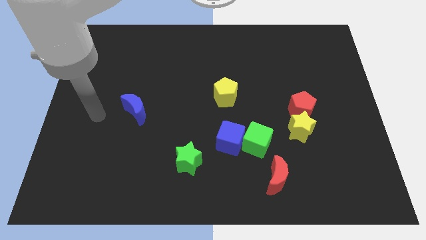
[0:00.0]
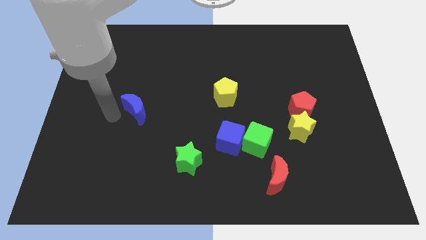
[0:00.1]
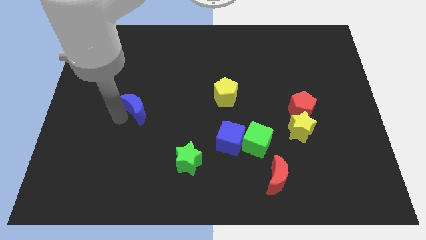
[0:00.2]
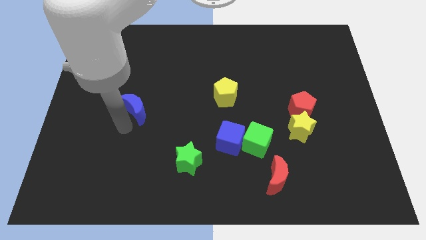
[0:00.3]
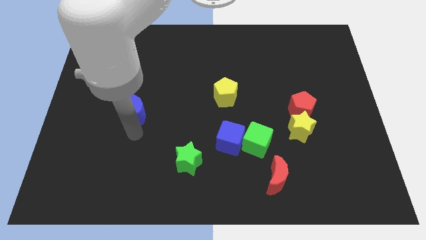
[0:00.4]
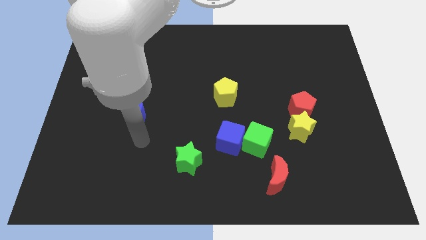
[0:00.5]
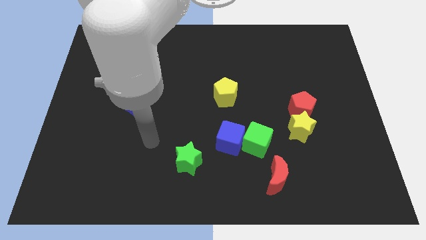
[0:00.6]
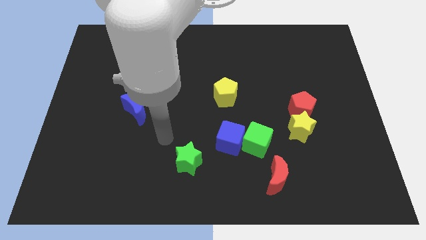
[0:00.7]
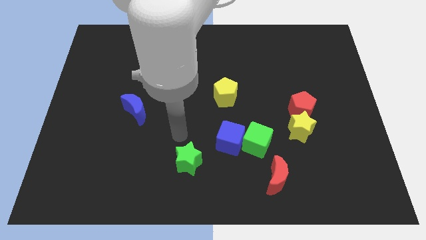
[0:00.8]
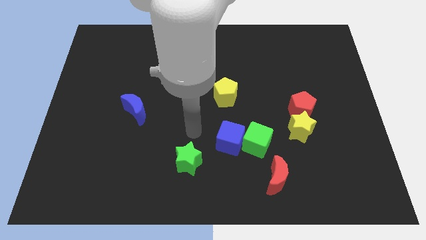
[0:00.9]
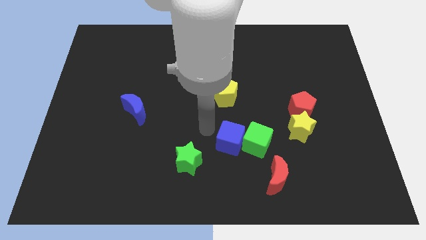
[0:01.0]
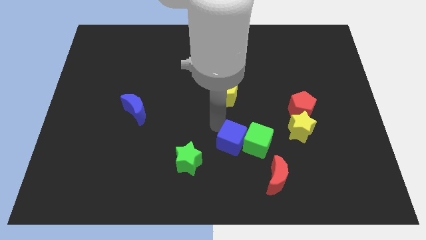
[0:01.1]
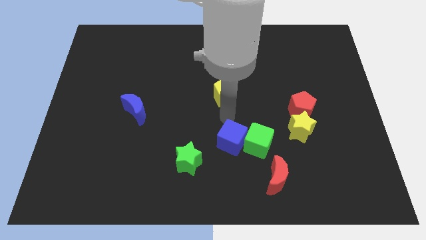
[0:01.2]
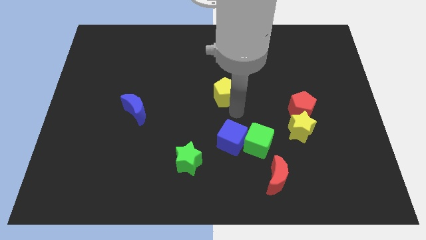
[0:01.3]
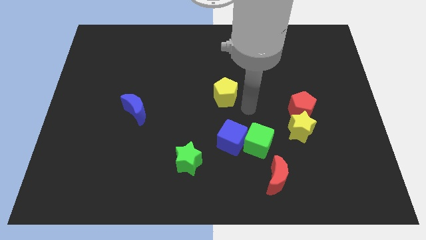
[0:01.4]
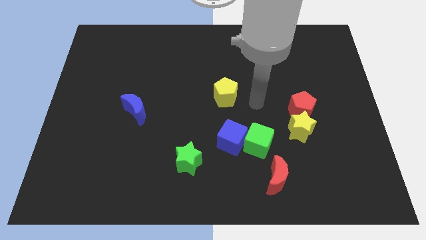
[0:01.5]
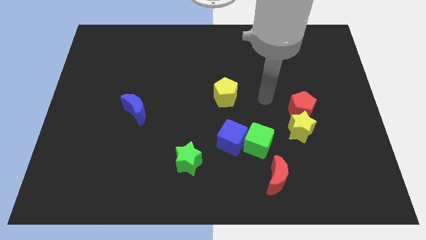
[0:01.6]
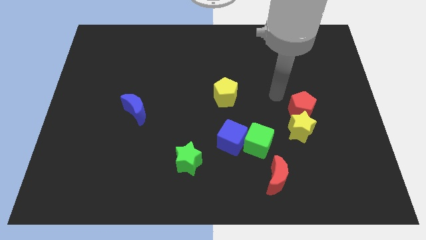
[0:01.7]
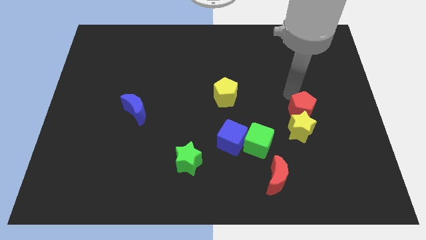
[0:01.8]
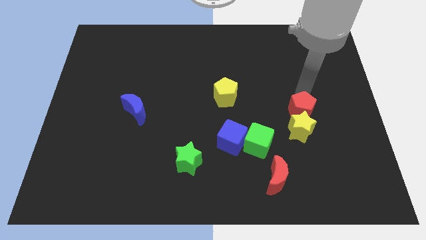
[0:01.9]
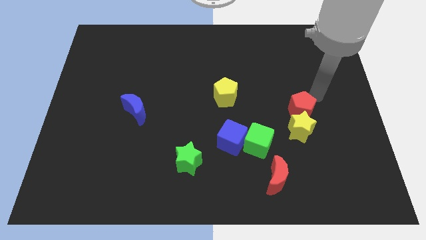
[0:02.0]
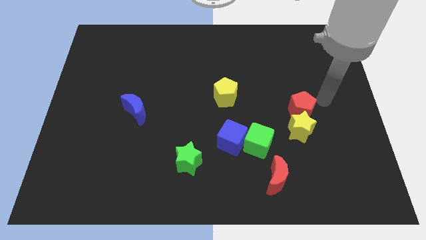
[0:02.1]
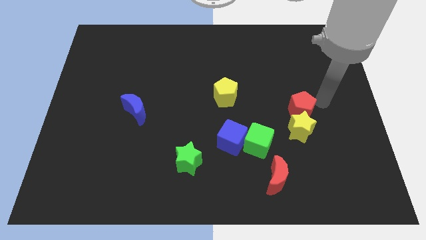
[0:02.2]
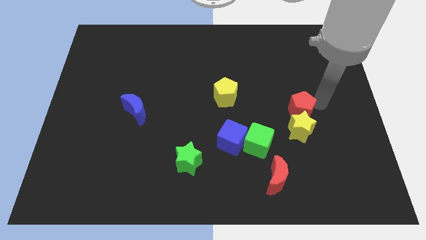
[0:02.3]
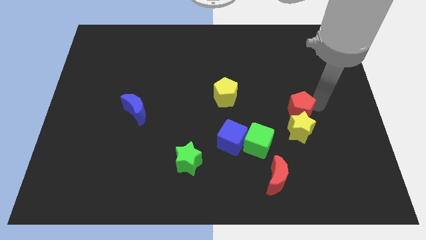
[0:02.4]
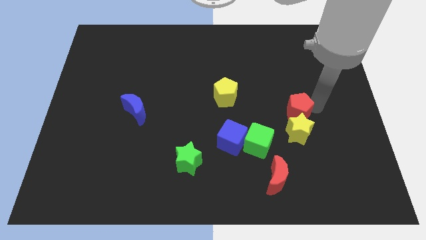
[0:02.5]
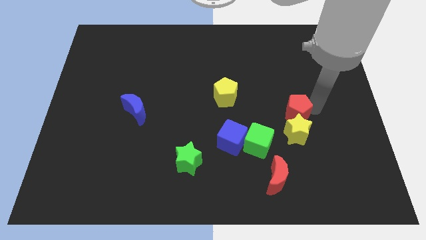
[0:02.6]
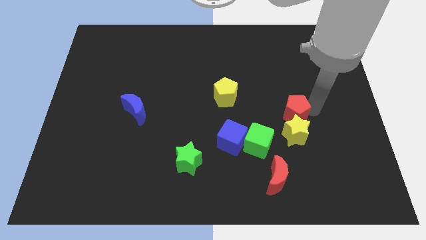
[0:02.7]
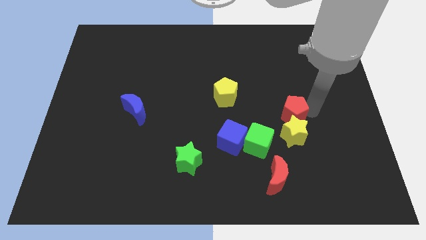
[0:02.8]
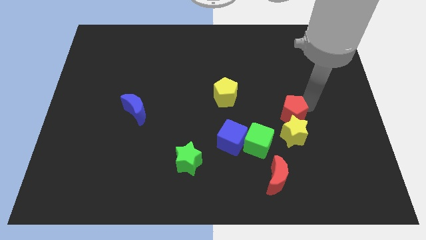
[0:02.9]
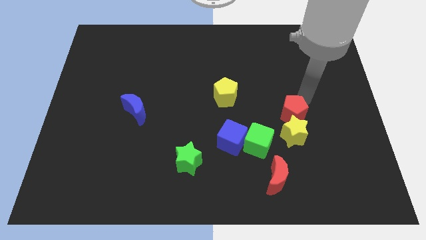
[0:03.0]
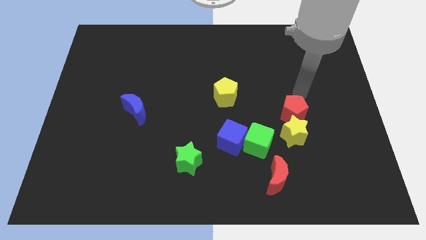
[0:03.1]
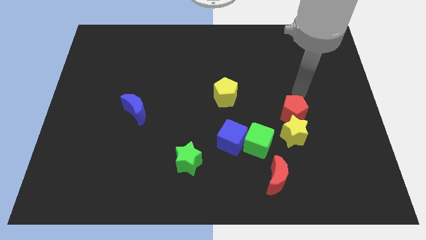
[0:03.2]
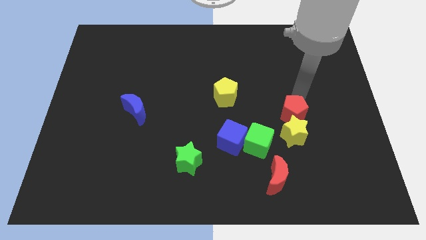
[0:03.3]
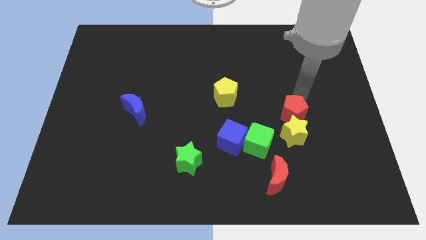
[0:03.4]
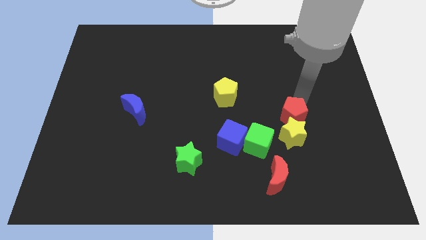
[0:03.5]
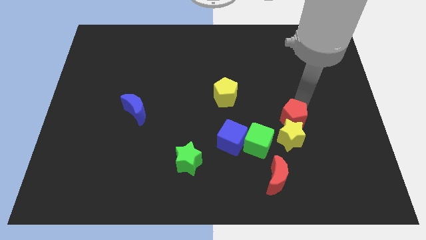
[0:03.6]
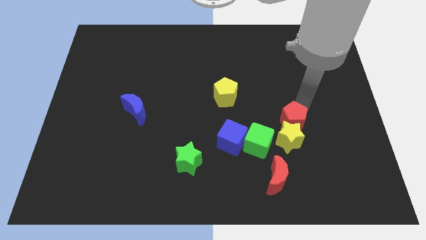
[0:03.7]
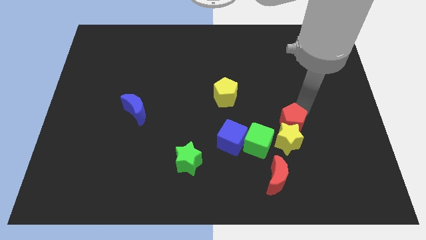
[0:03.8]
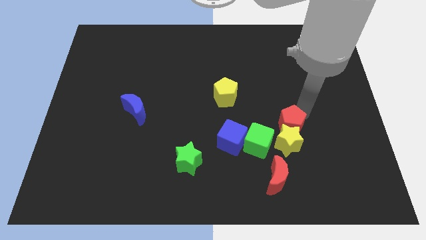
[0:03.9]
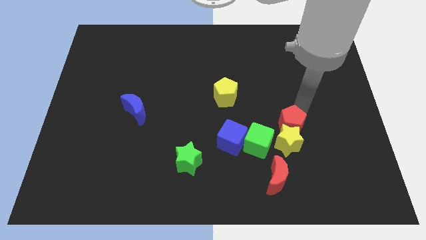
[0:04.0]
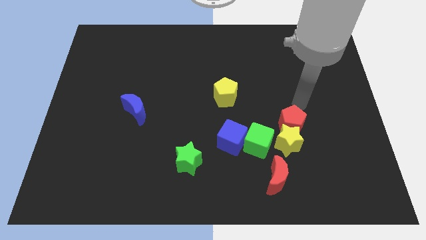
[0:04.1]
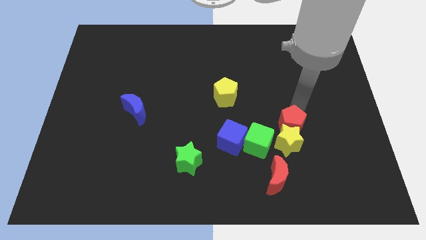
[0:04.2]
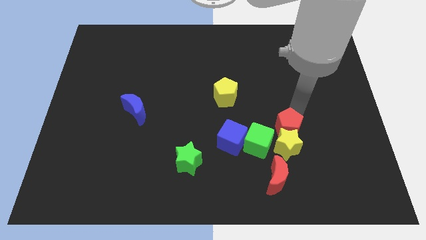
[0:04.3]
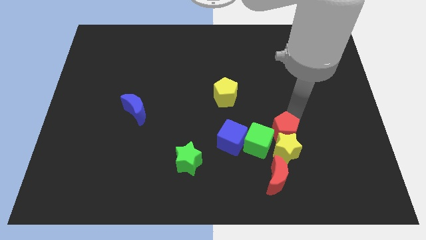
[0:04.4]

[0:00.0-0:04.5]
move the red pentagon a little diagonally downwards and to the left

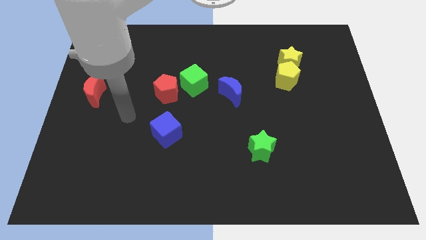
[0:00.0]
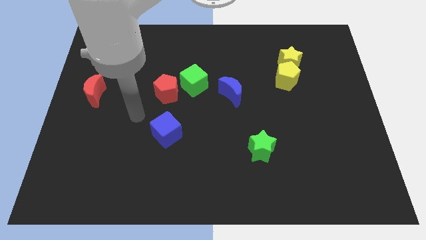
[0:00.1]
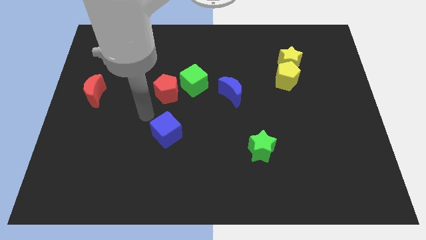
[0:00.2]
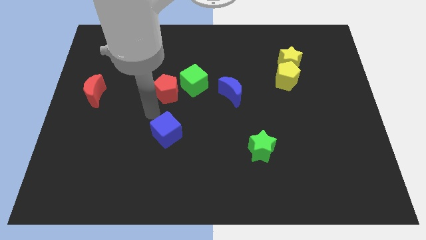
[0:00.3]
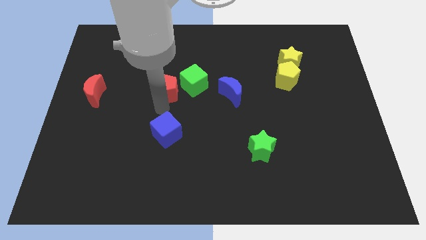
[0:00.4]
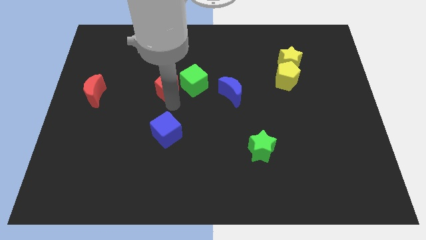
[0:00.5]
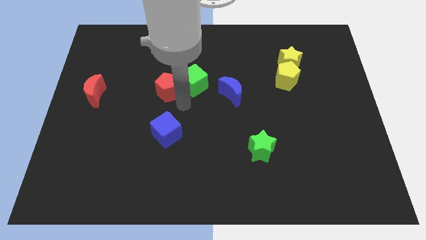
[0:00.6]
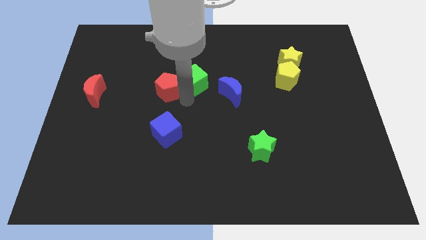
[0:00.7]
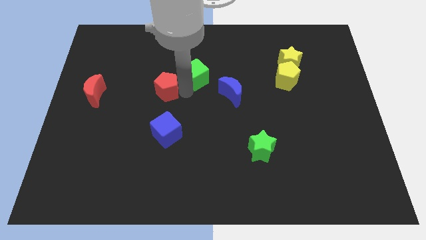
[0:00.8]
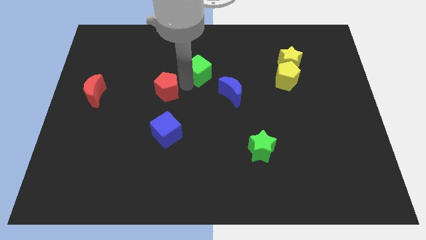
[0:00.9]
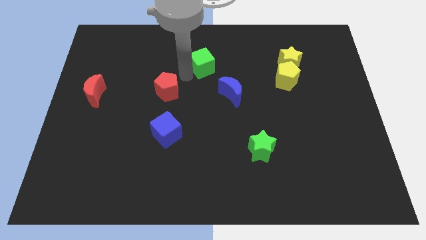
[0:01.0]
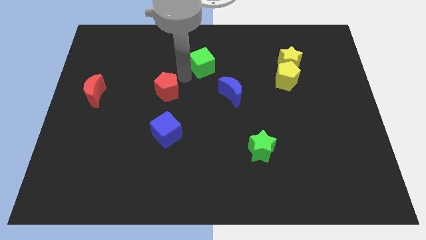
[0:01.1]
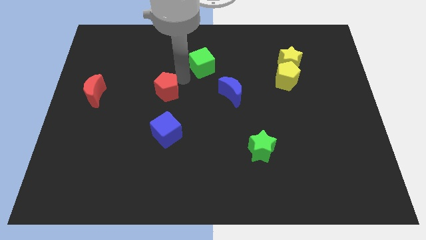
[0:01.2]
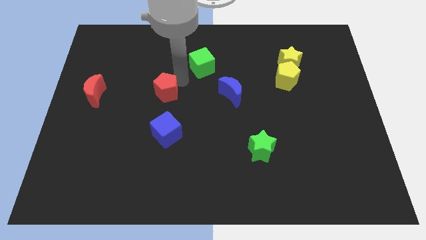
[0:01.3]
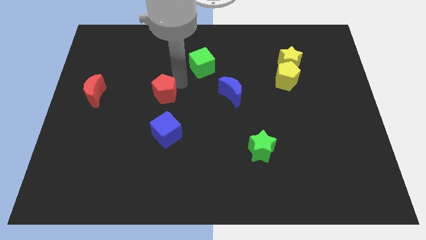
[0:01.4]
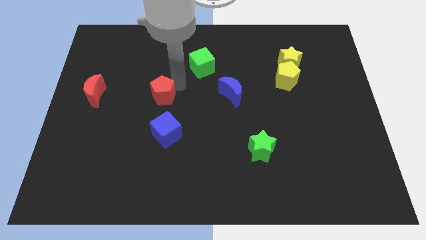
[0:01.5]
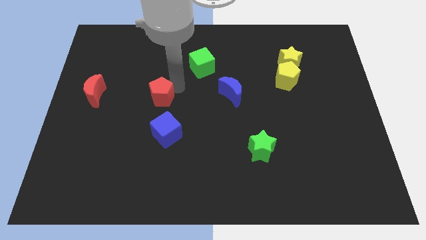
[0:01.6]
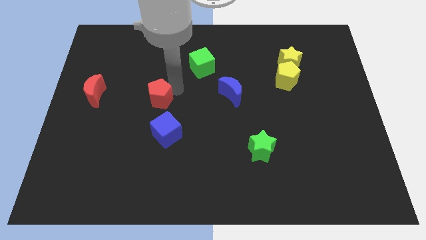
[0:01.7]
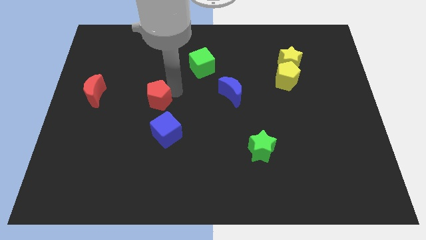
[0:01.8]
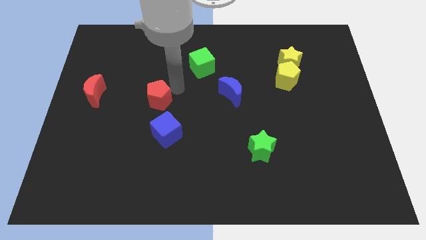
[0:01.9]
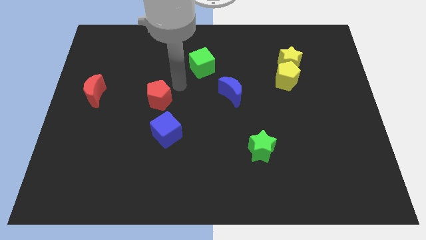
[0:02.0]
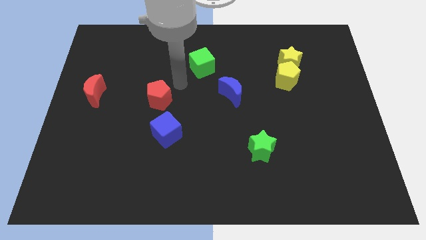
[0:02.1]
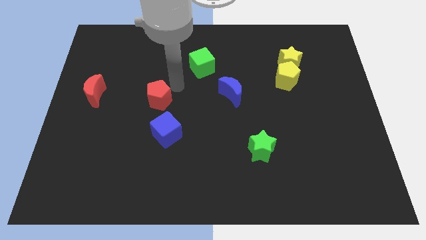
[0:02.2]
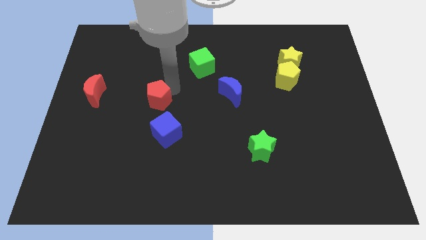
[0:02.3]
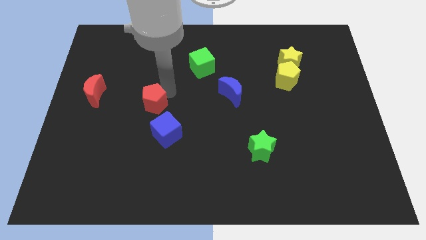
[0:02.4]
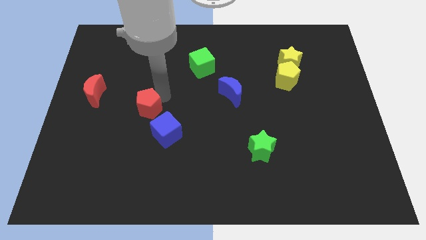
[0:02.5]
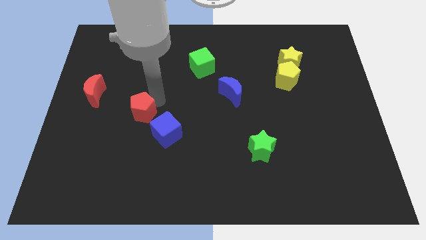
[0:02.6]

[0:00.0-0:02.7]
move the red pentagon a little bit diagonally downwards and left

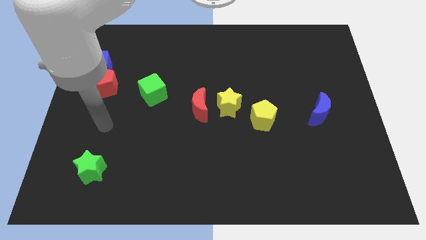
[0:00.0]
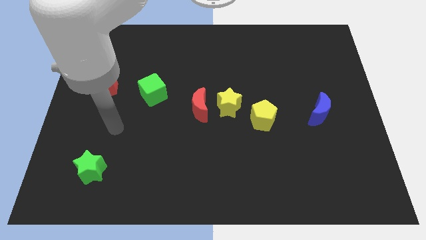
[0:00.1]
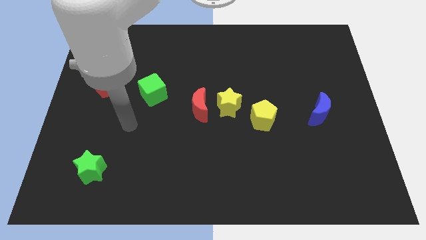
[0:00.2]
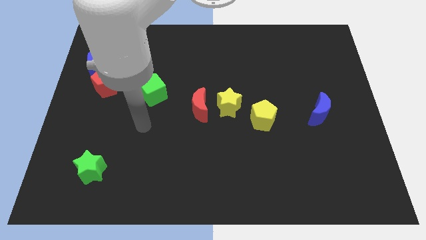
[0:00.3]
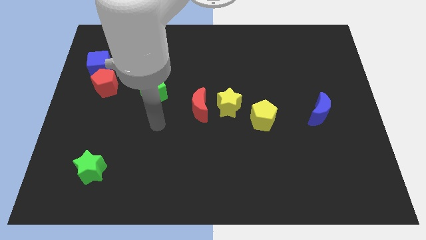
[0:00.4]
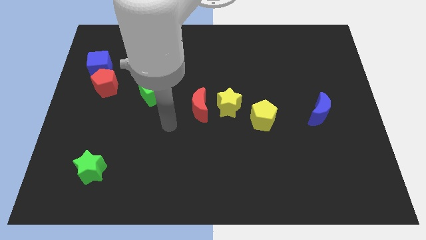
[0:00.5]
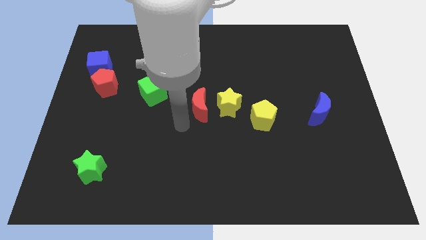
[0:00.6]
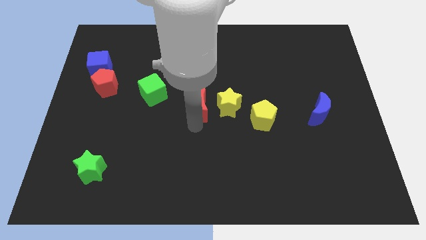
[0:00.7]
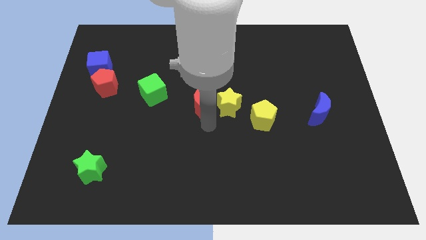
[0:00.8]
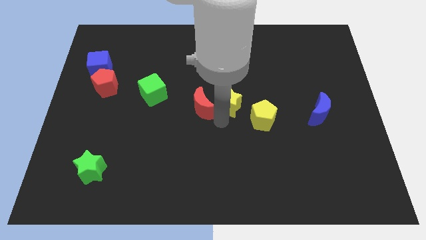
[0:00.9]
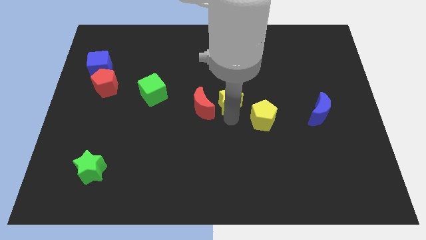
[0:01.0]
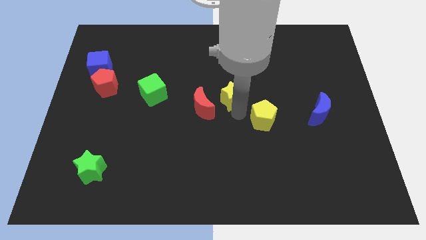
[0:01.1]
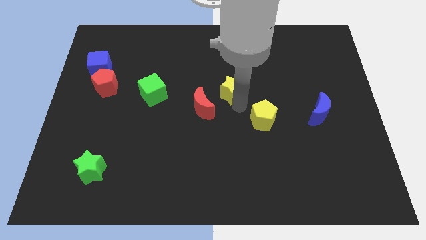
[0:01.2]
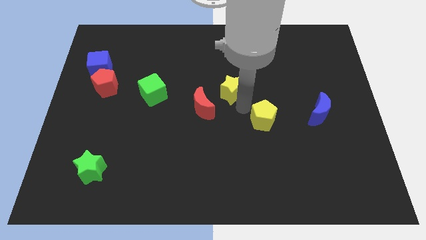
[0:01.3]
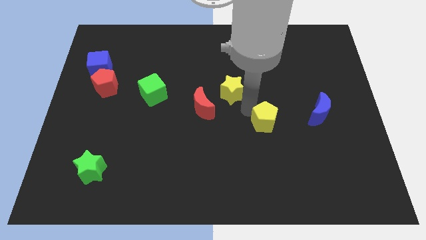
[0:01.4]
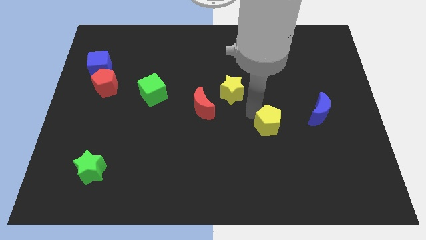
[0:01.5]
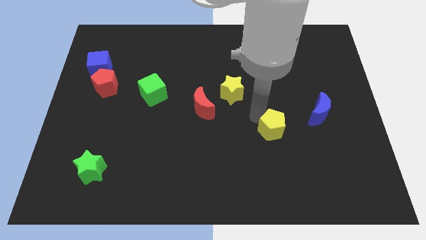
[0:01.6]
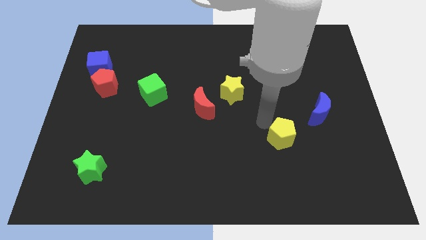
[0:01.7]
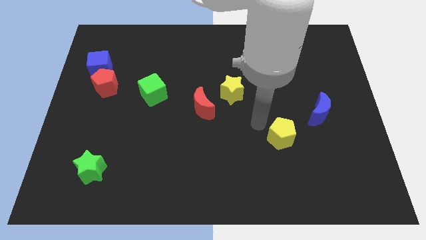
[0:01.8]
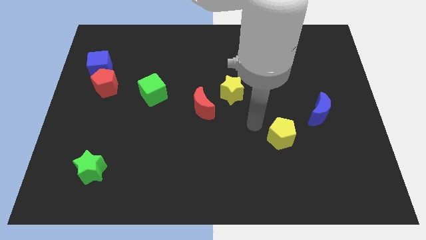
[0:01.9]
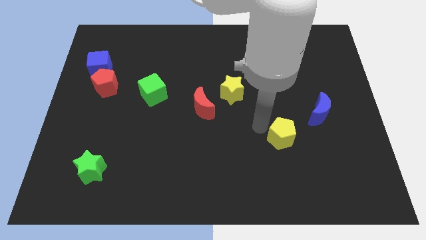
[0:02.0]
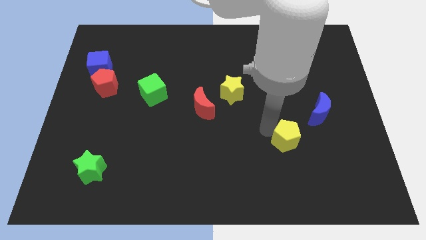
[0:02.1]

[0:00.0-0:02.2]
push the yellow pentagon a little down and right
